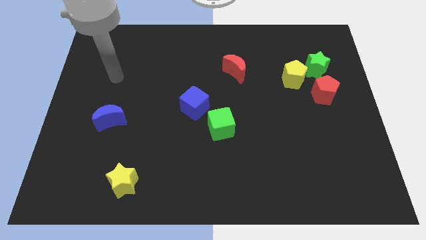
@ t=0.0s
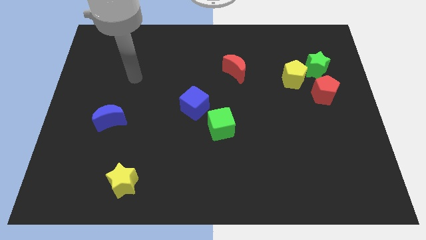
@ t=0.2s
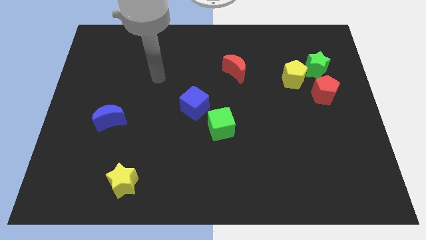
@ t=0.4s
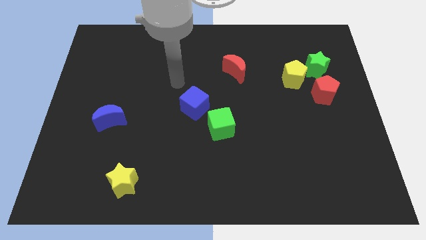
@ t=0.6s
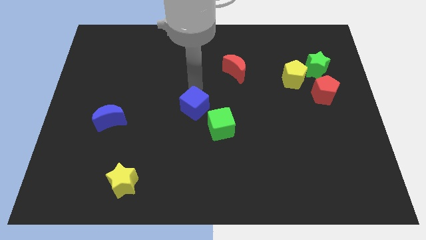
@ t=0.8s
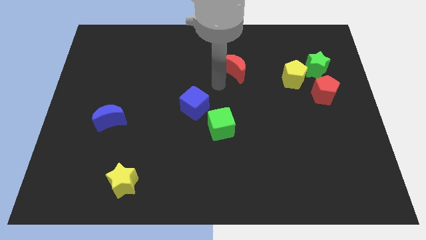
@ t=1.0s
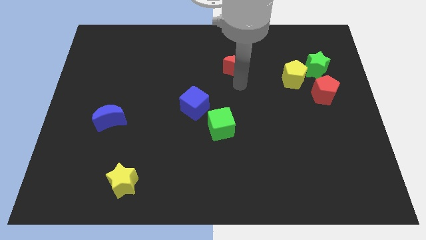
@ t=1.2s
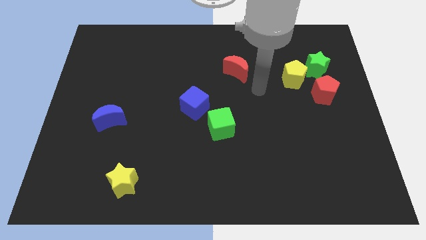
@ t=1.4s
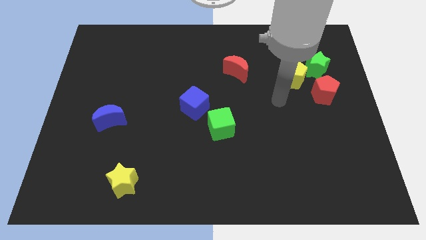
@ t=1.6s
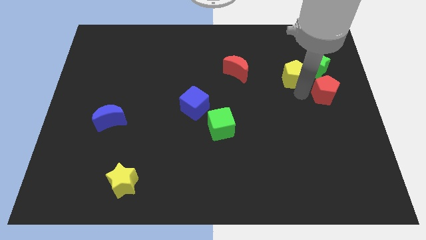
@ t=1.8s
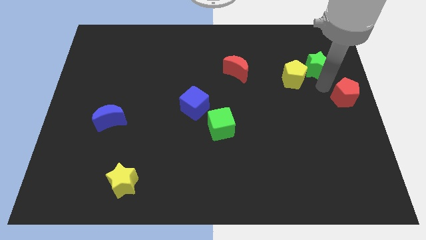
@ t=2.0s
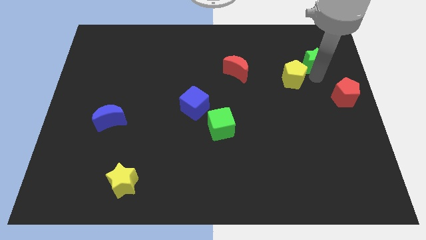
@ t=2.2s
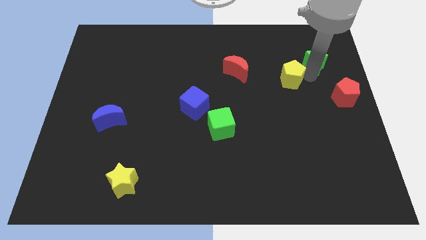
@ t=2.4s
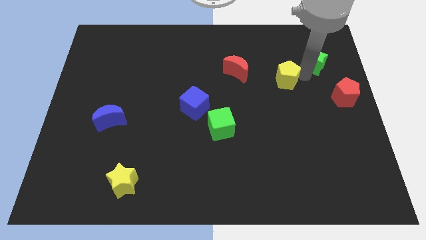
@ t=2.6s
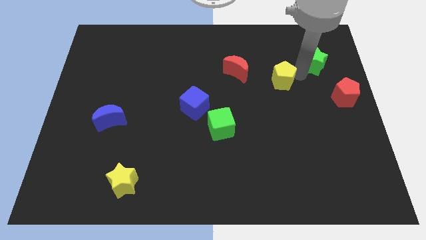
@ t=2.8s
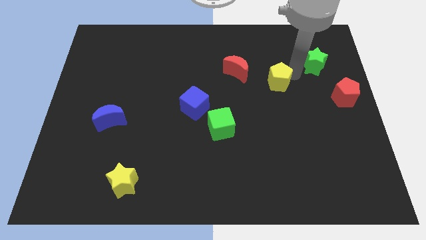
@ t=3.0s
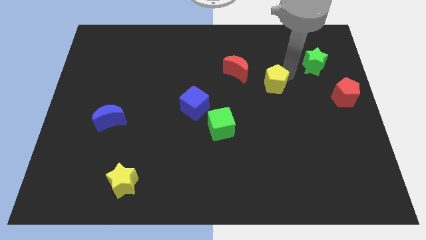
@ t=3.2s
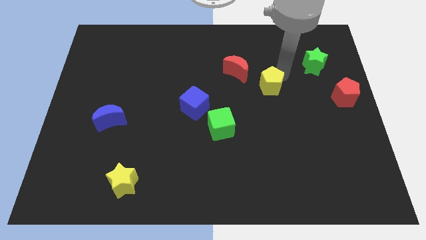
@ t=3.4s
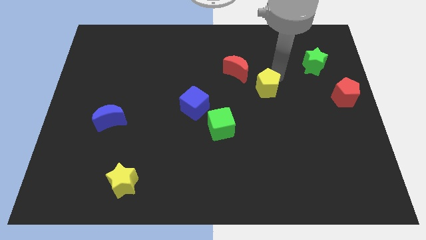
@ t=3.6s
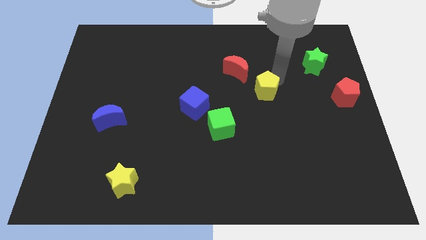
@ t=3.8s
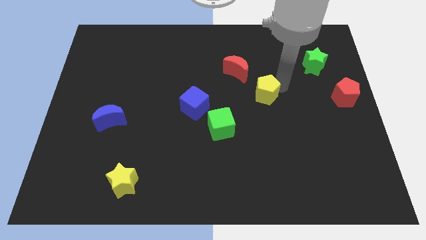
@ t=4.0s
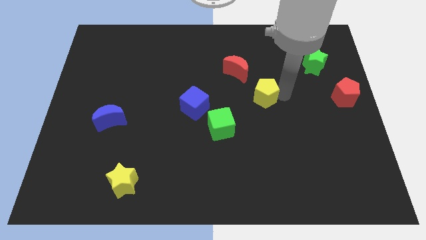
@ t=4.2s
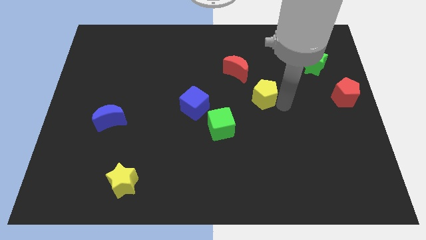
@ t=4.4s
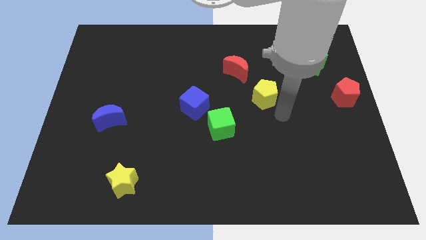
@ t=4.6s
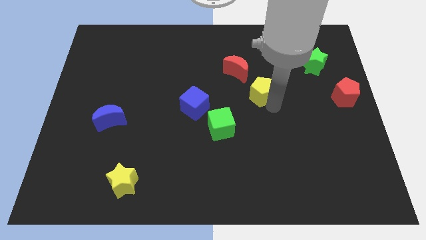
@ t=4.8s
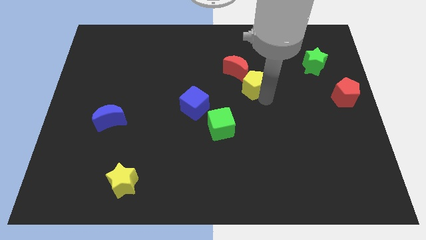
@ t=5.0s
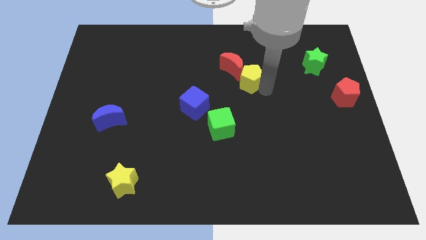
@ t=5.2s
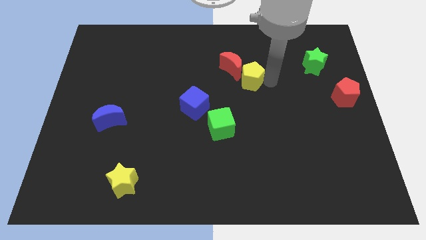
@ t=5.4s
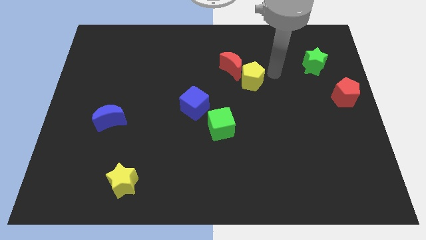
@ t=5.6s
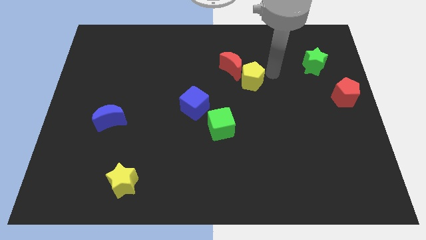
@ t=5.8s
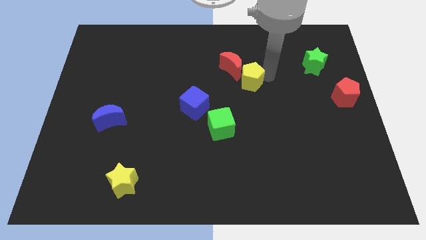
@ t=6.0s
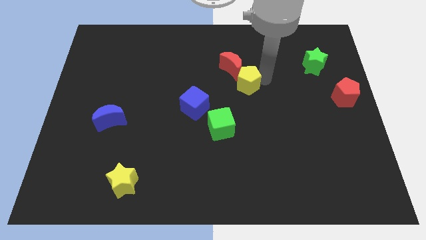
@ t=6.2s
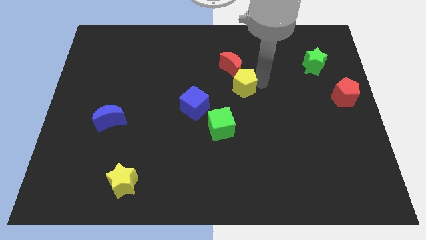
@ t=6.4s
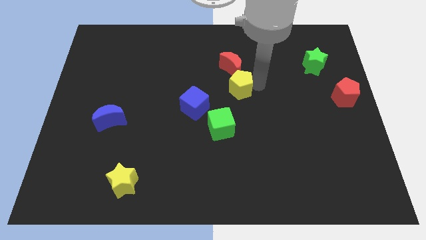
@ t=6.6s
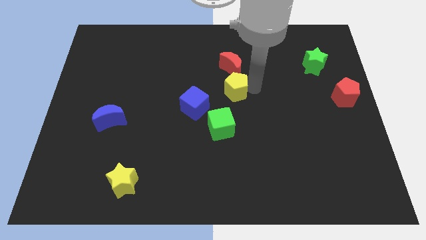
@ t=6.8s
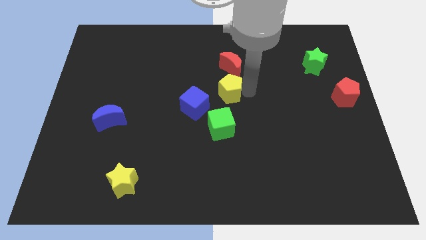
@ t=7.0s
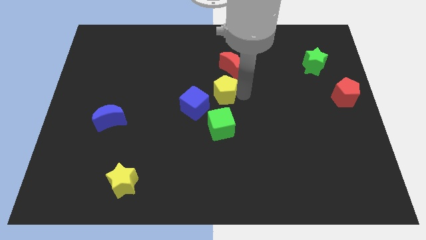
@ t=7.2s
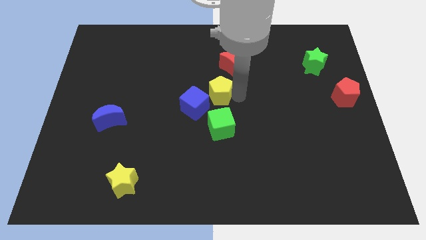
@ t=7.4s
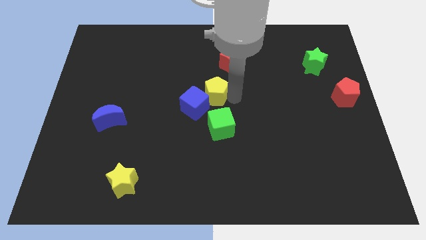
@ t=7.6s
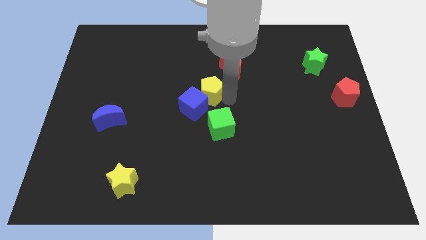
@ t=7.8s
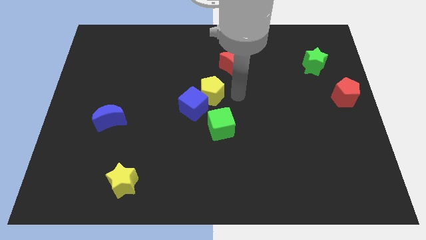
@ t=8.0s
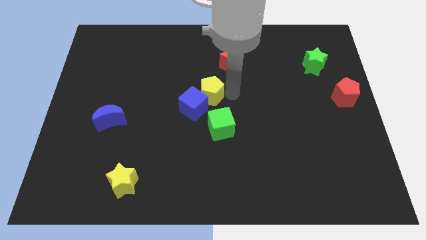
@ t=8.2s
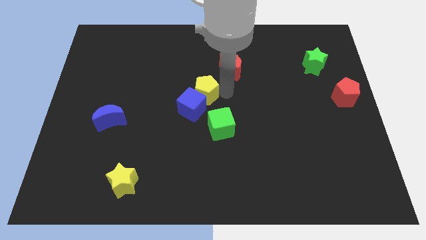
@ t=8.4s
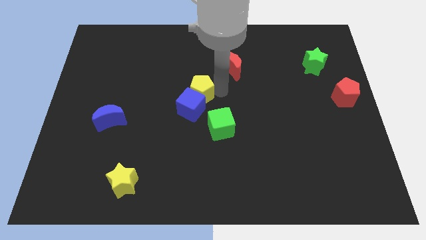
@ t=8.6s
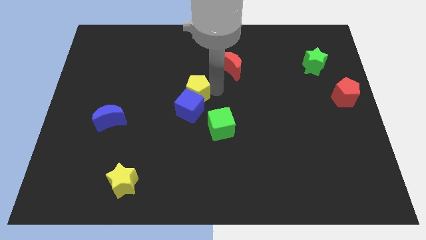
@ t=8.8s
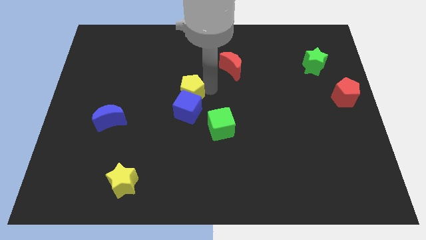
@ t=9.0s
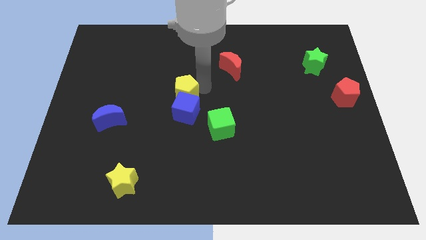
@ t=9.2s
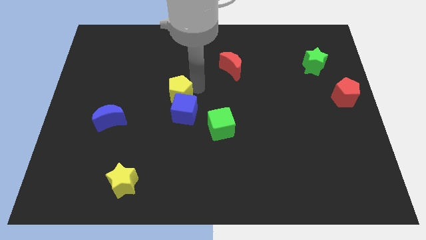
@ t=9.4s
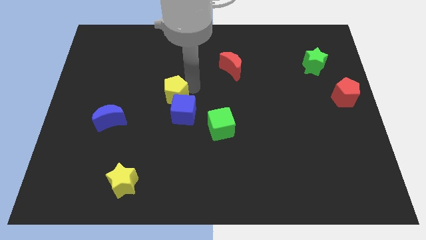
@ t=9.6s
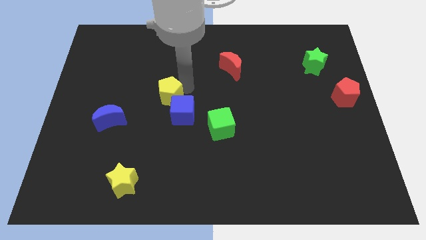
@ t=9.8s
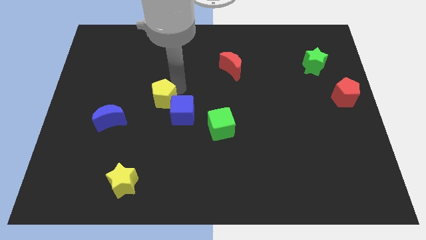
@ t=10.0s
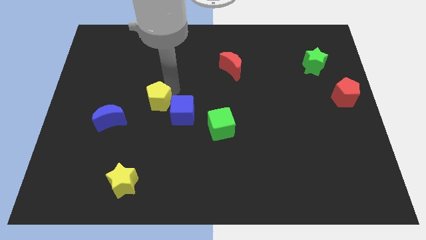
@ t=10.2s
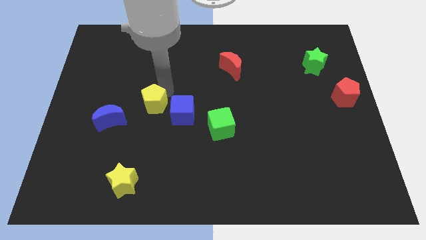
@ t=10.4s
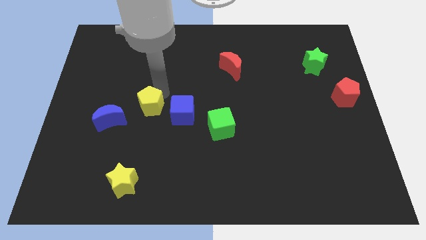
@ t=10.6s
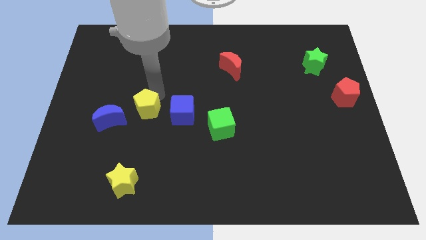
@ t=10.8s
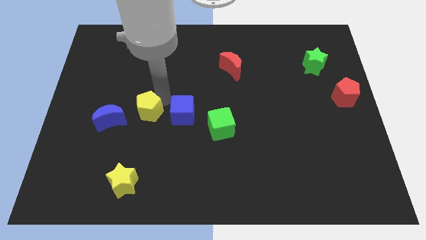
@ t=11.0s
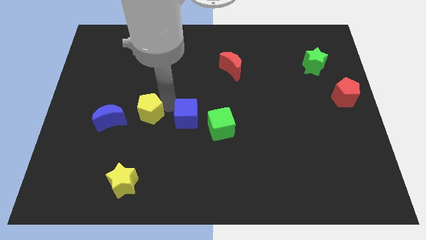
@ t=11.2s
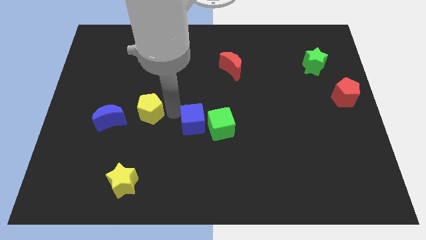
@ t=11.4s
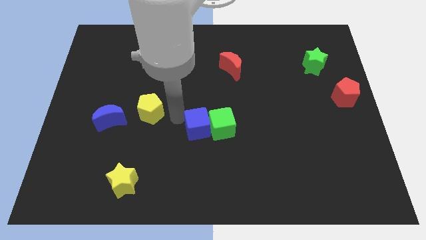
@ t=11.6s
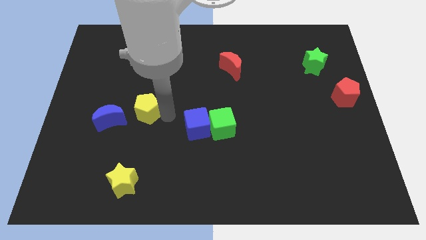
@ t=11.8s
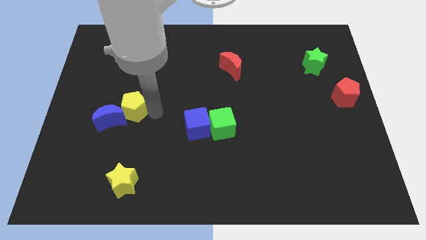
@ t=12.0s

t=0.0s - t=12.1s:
push the yellow pentagon next to the blue moon

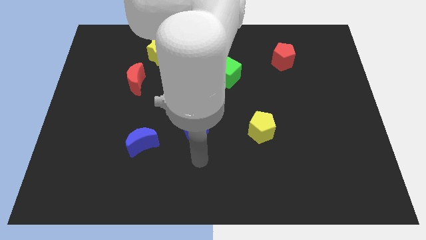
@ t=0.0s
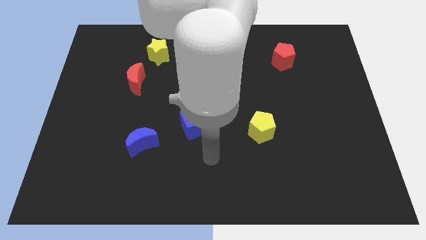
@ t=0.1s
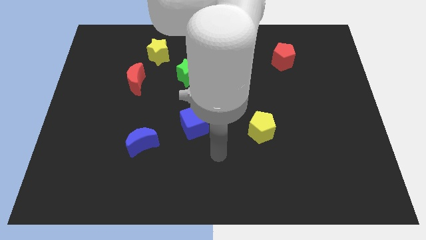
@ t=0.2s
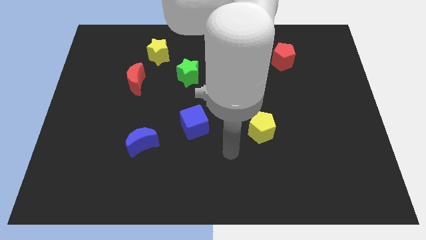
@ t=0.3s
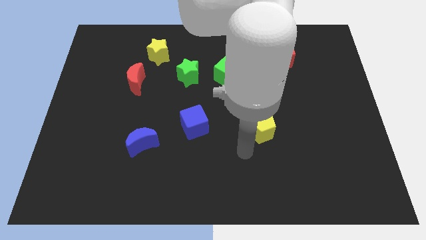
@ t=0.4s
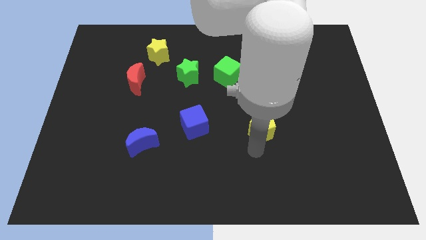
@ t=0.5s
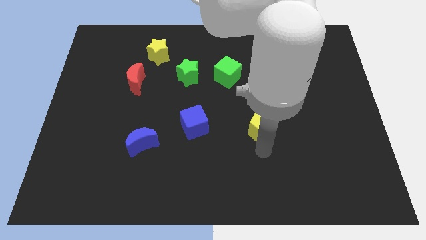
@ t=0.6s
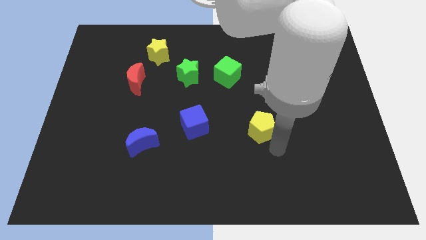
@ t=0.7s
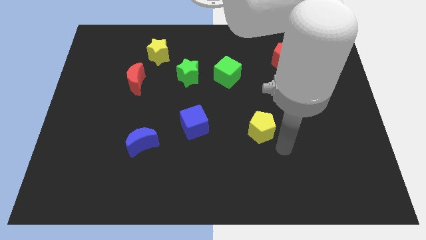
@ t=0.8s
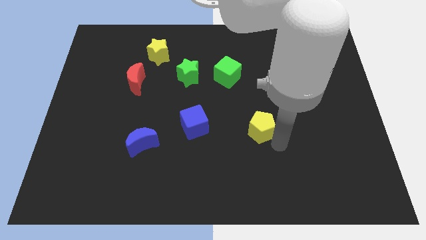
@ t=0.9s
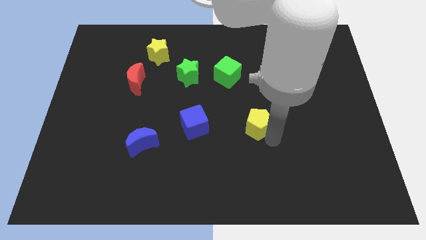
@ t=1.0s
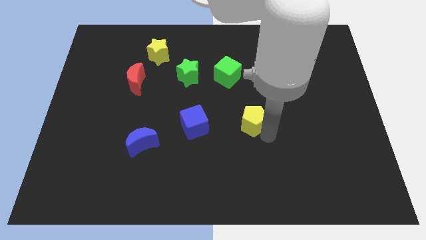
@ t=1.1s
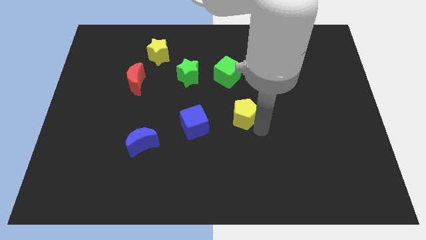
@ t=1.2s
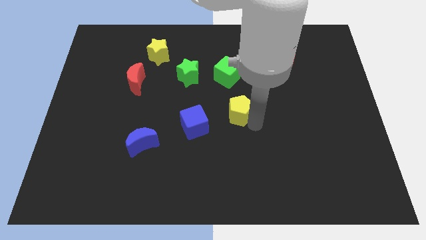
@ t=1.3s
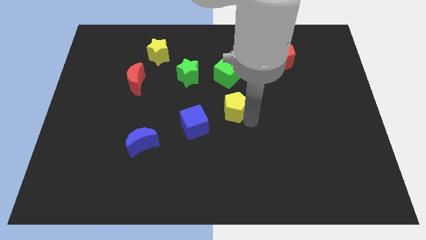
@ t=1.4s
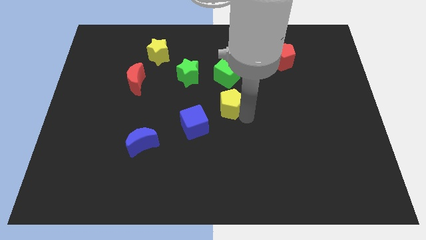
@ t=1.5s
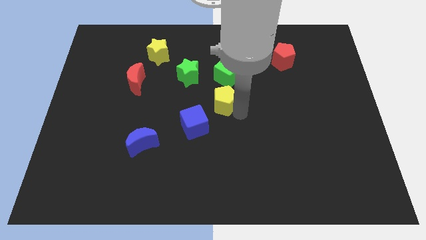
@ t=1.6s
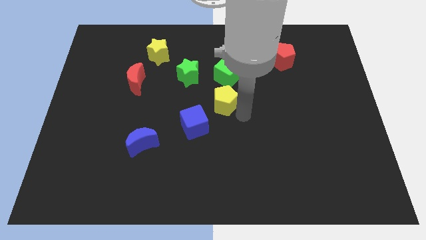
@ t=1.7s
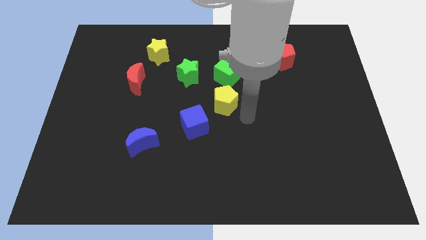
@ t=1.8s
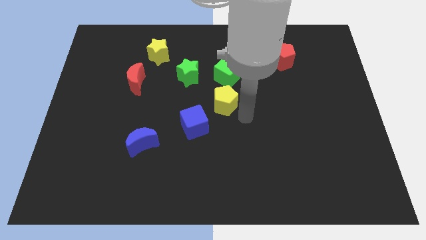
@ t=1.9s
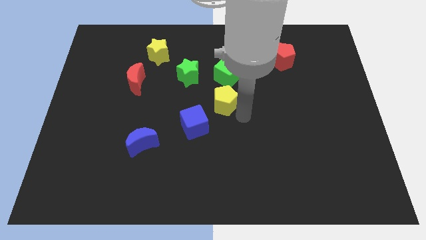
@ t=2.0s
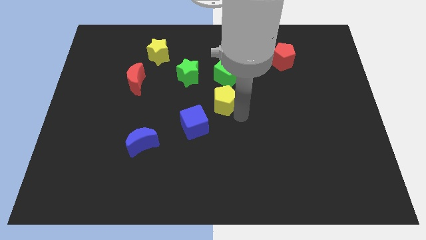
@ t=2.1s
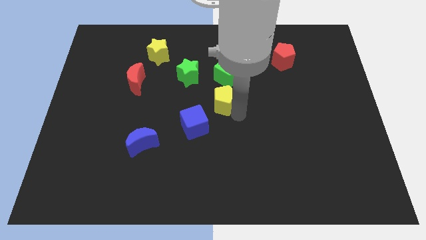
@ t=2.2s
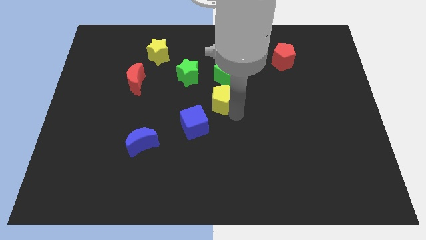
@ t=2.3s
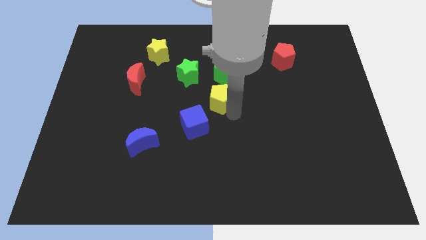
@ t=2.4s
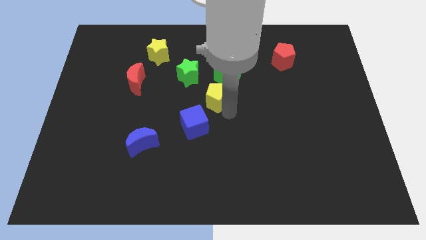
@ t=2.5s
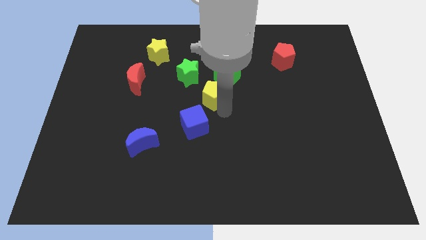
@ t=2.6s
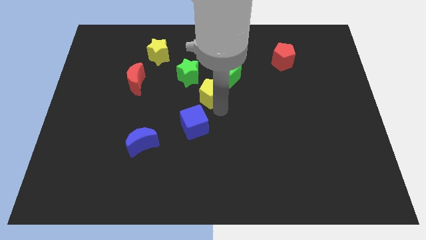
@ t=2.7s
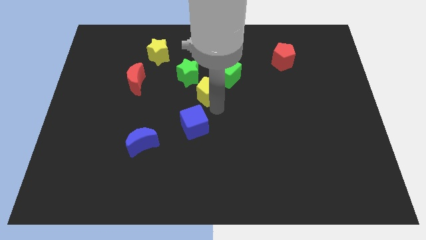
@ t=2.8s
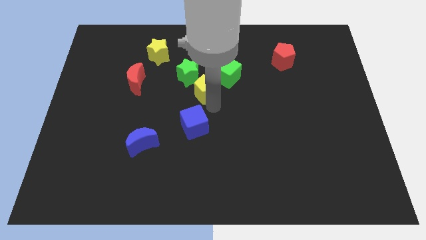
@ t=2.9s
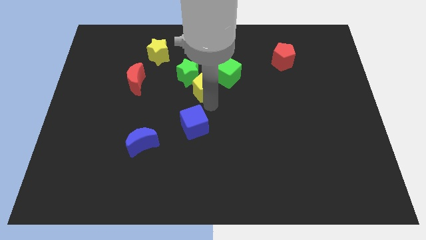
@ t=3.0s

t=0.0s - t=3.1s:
push the yellow pentagon towards the green star
